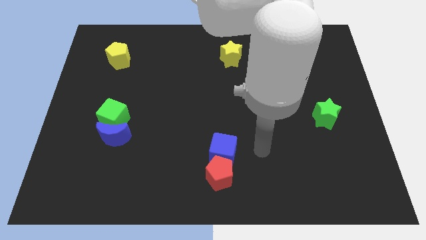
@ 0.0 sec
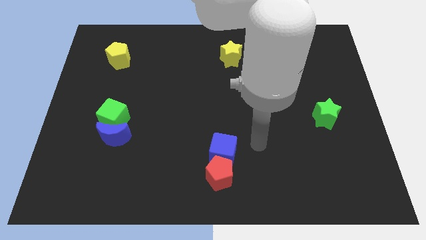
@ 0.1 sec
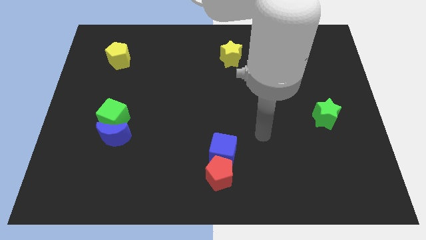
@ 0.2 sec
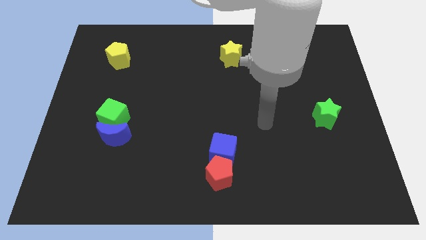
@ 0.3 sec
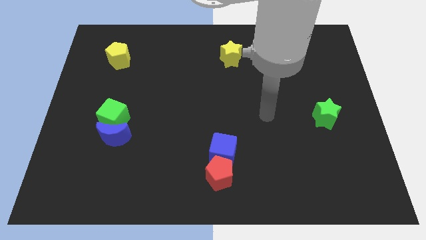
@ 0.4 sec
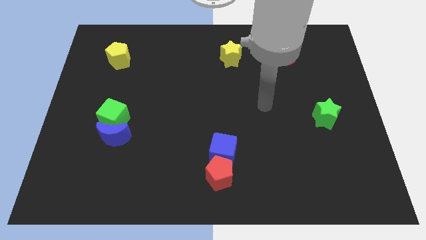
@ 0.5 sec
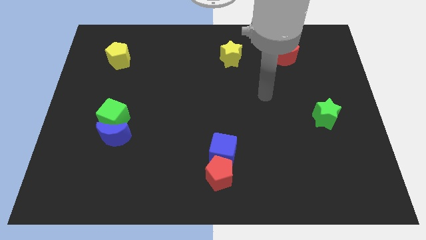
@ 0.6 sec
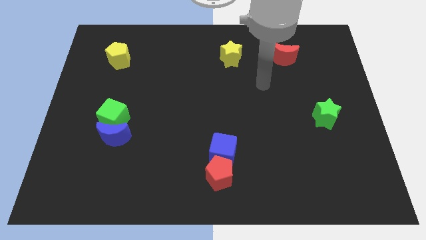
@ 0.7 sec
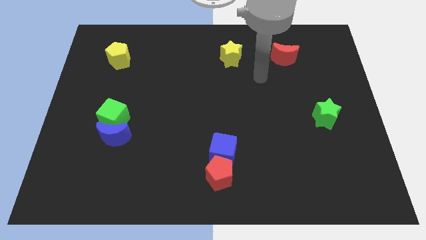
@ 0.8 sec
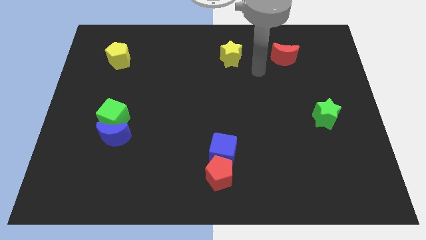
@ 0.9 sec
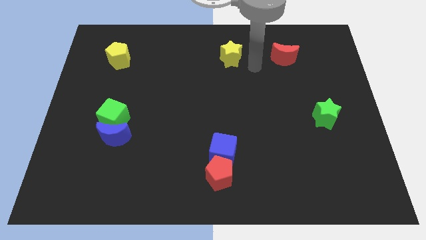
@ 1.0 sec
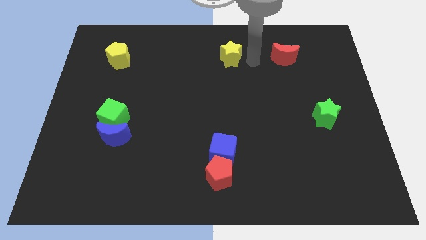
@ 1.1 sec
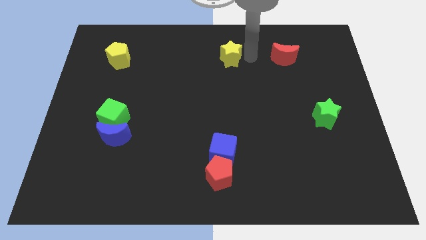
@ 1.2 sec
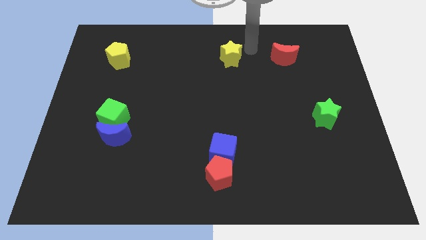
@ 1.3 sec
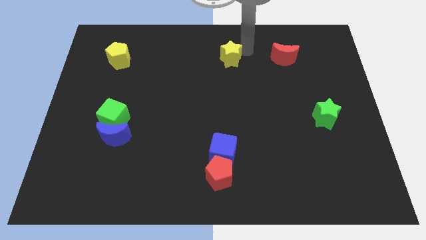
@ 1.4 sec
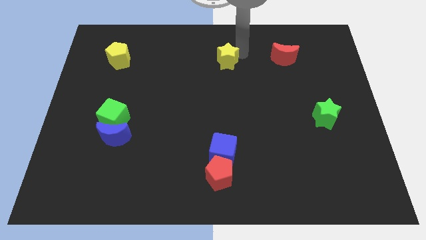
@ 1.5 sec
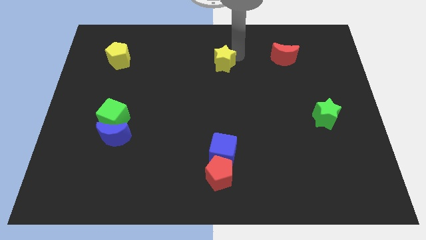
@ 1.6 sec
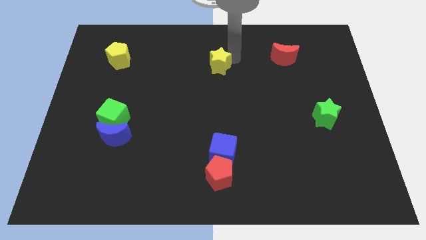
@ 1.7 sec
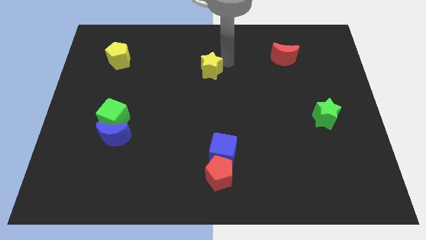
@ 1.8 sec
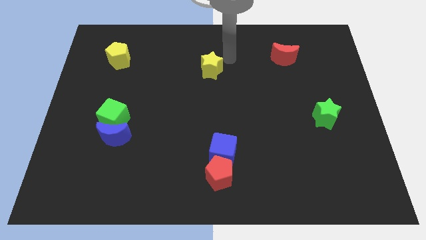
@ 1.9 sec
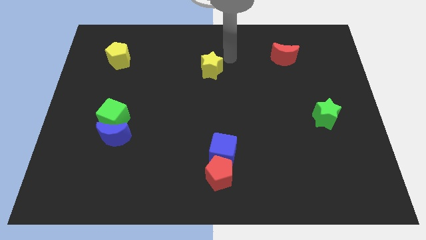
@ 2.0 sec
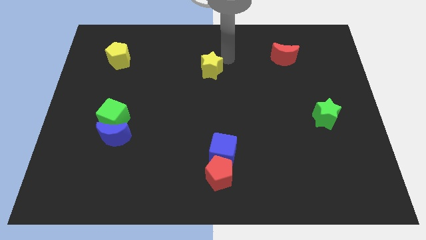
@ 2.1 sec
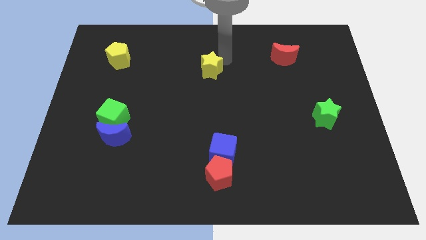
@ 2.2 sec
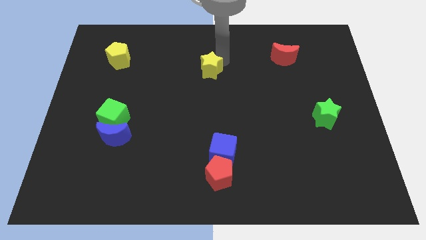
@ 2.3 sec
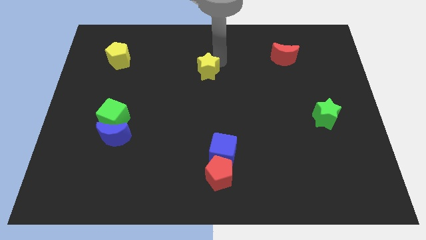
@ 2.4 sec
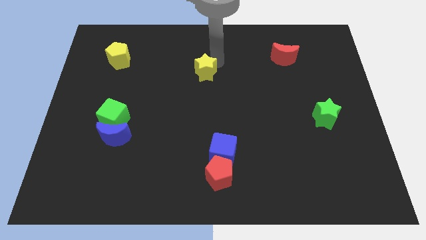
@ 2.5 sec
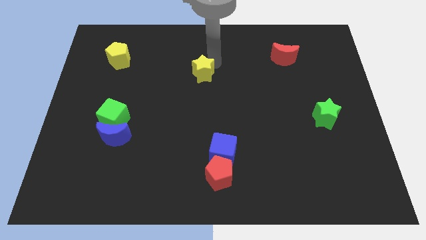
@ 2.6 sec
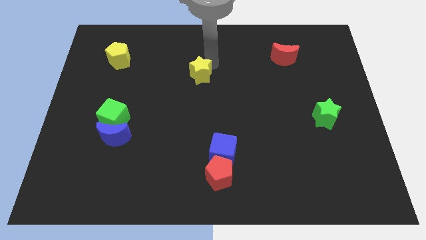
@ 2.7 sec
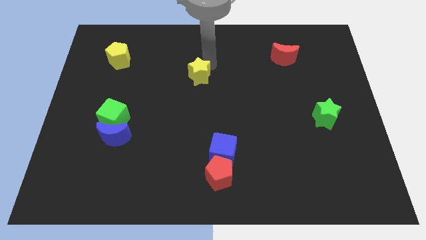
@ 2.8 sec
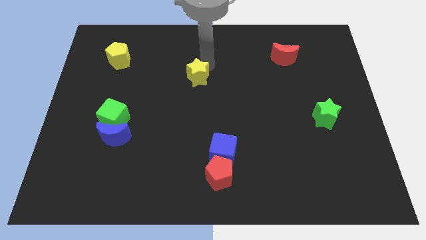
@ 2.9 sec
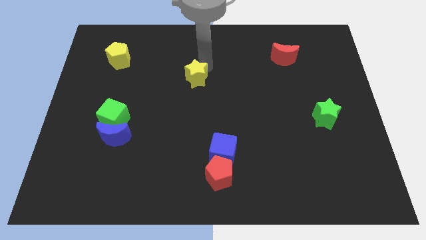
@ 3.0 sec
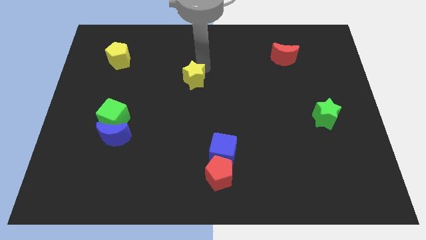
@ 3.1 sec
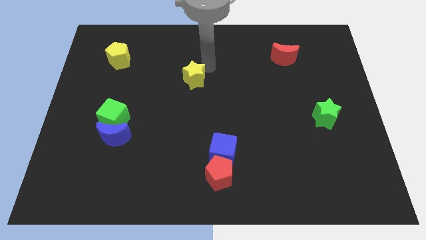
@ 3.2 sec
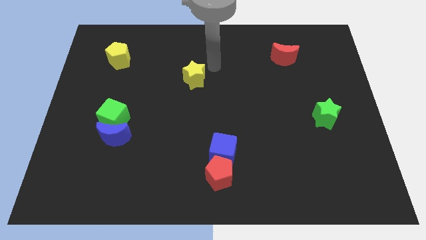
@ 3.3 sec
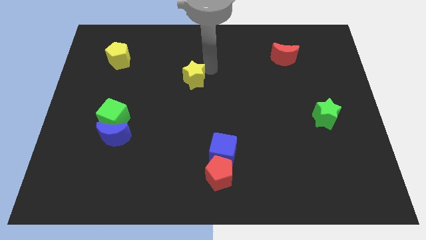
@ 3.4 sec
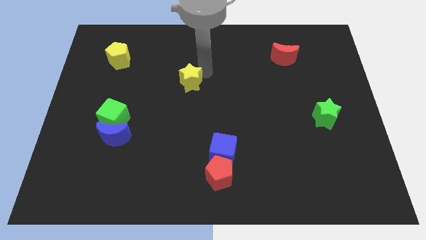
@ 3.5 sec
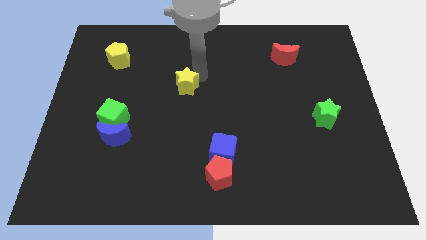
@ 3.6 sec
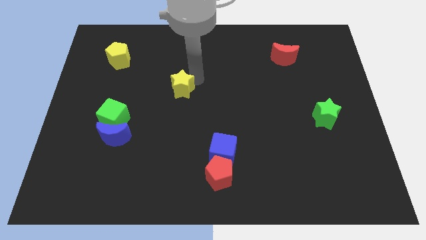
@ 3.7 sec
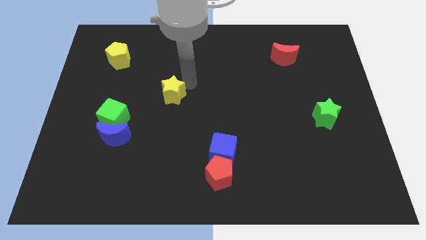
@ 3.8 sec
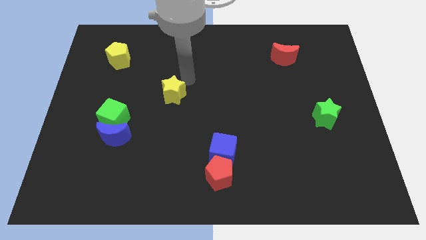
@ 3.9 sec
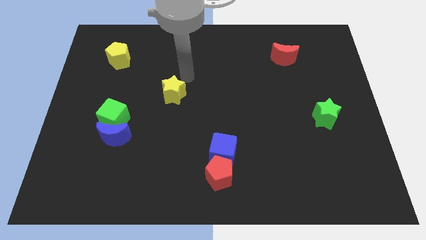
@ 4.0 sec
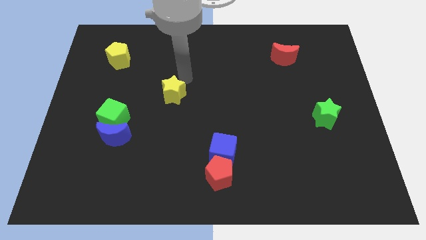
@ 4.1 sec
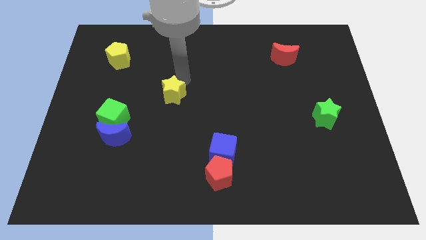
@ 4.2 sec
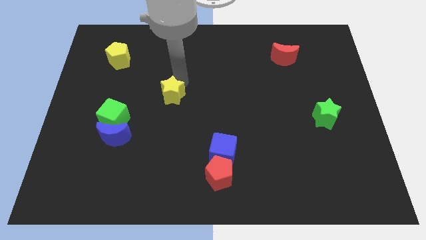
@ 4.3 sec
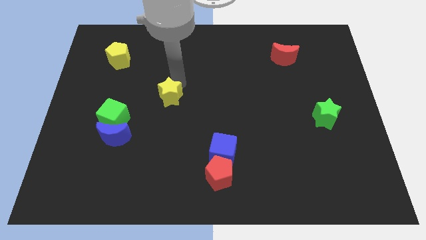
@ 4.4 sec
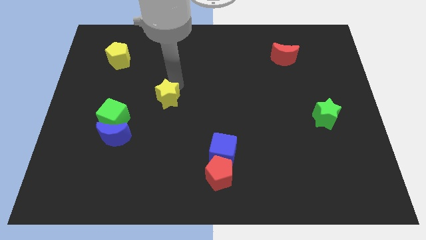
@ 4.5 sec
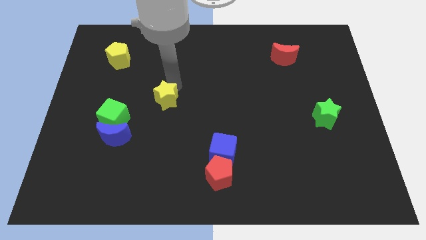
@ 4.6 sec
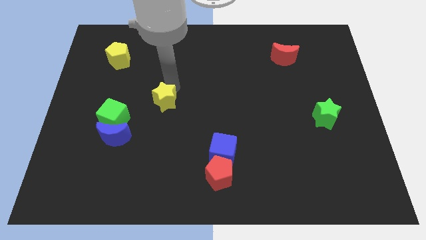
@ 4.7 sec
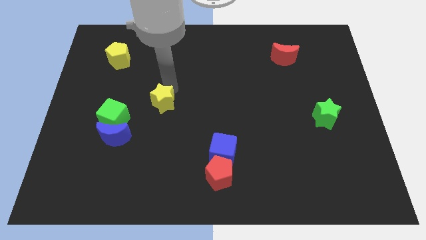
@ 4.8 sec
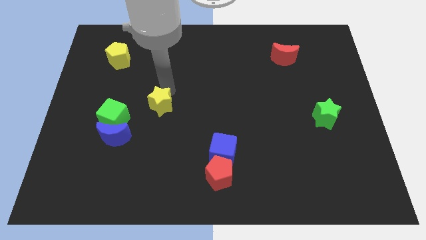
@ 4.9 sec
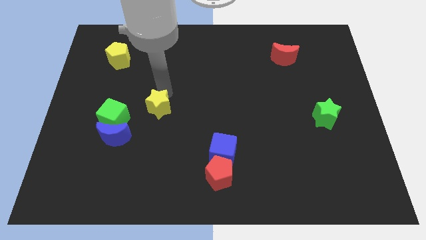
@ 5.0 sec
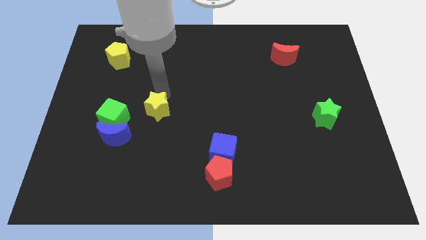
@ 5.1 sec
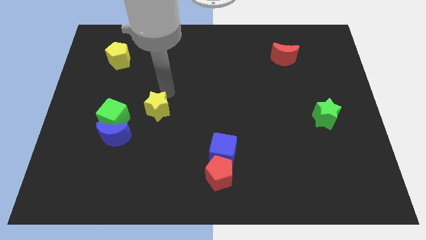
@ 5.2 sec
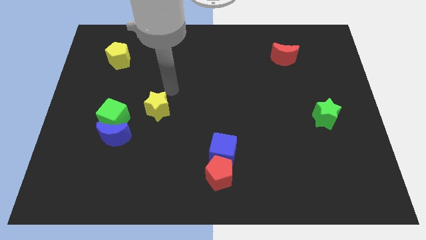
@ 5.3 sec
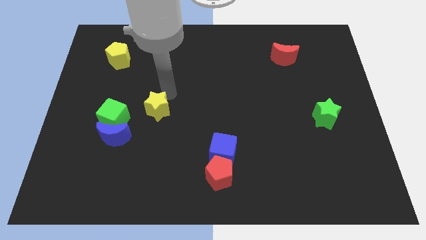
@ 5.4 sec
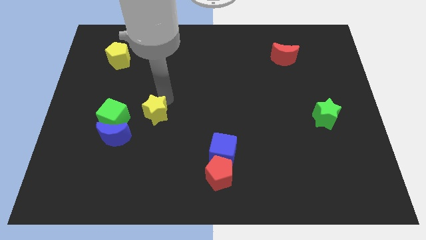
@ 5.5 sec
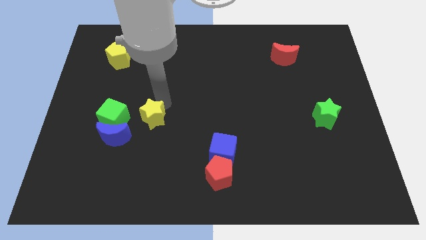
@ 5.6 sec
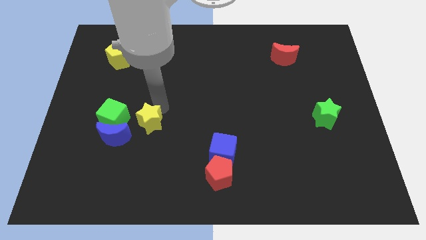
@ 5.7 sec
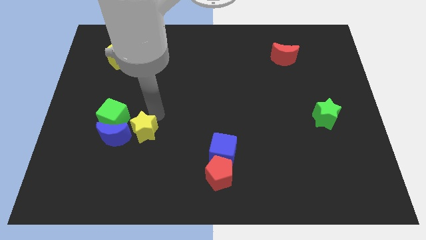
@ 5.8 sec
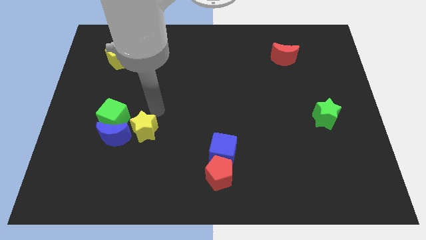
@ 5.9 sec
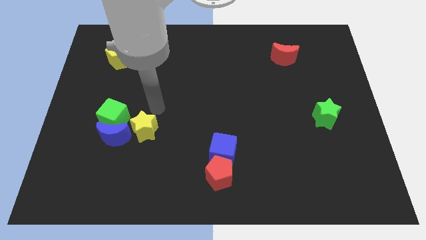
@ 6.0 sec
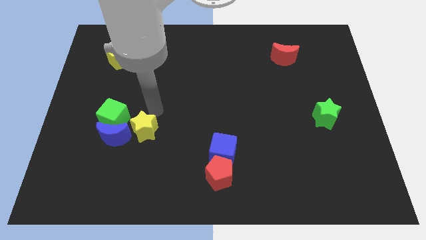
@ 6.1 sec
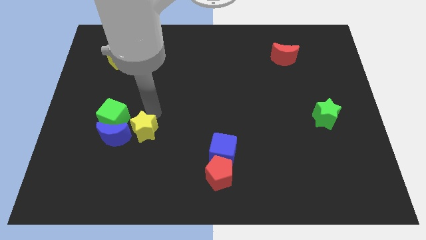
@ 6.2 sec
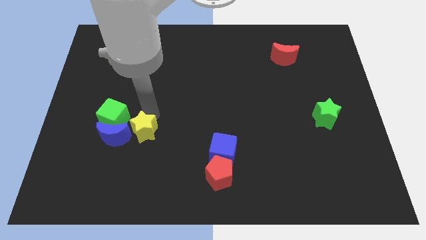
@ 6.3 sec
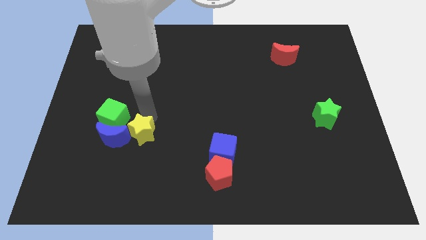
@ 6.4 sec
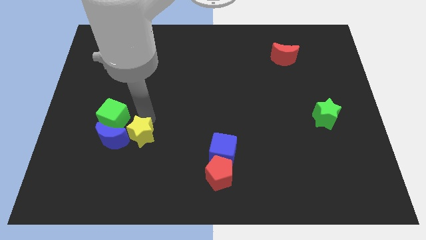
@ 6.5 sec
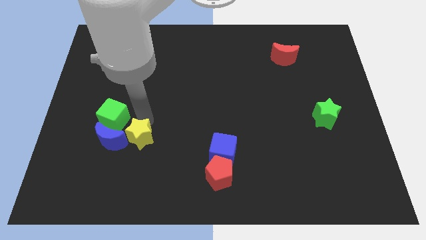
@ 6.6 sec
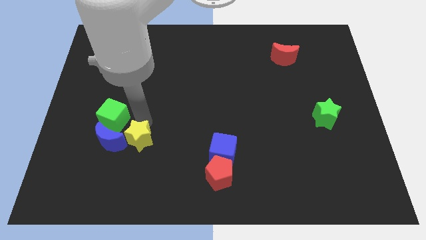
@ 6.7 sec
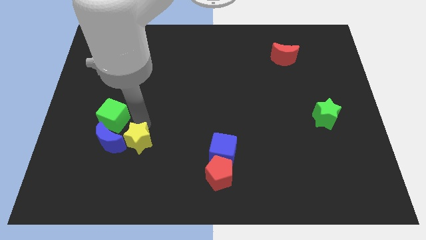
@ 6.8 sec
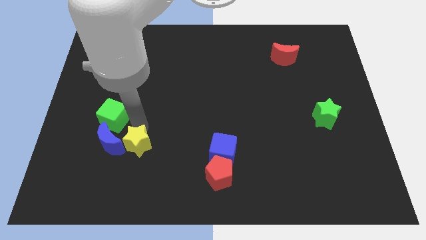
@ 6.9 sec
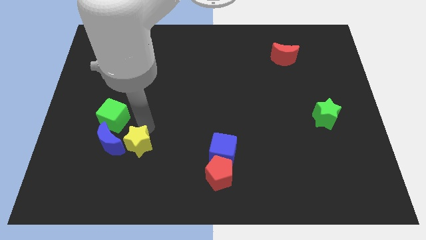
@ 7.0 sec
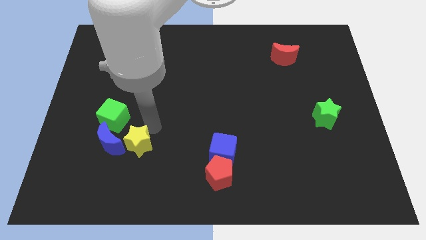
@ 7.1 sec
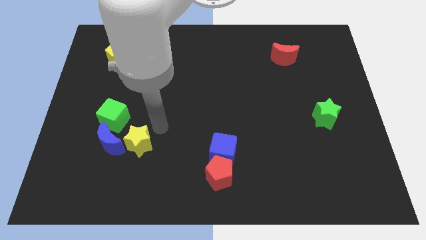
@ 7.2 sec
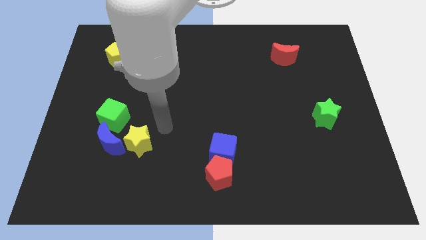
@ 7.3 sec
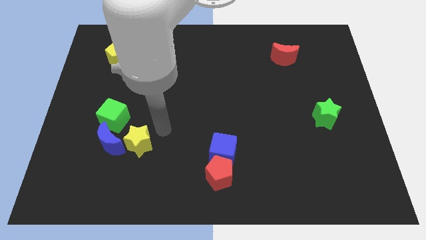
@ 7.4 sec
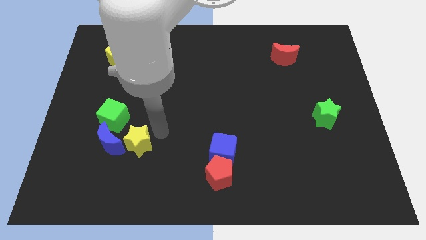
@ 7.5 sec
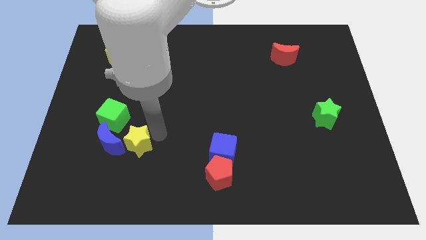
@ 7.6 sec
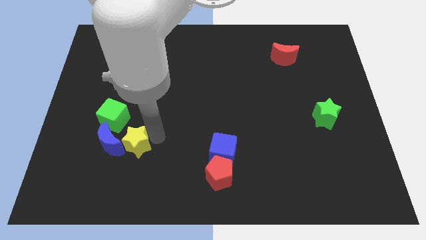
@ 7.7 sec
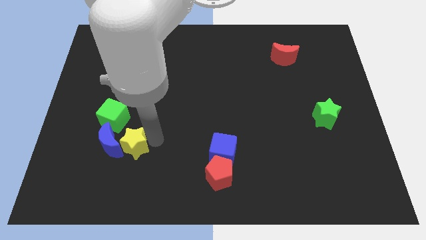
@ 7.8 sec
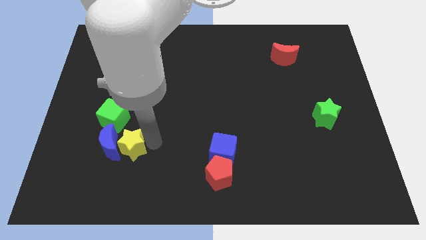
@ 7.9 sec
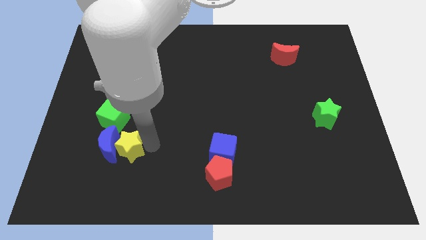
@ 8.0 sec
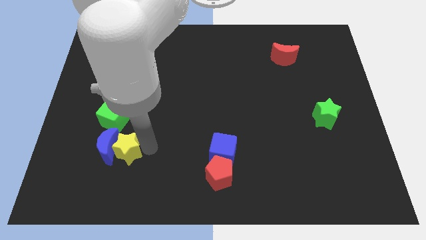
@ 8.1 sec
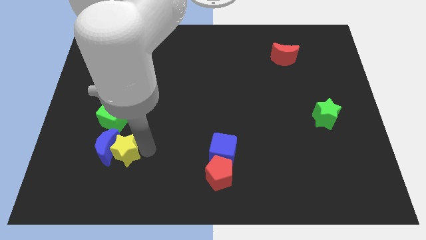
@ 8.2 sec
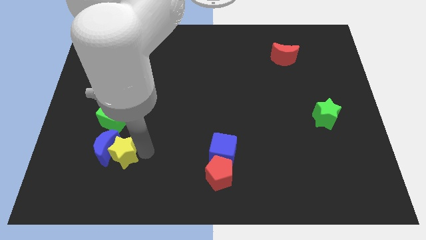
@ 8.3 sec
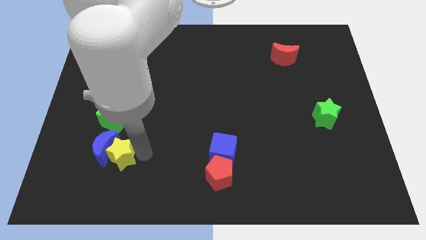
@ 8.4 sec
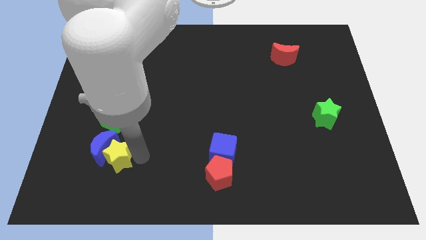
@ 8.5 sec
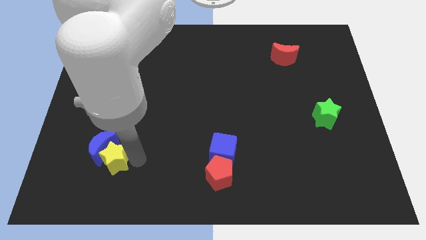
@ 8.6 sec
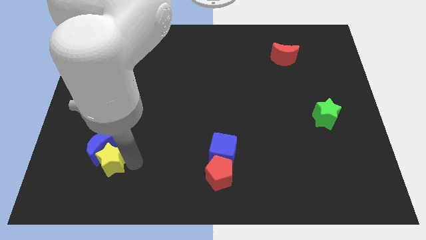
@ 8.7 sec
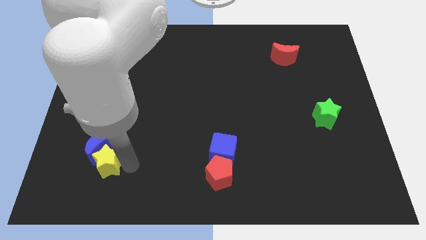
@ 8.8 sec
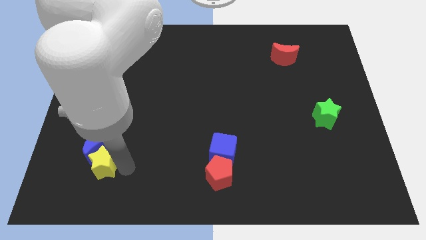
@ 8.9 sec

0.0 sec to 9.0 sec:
slide the yellow star diagonally down and to the left of the blue moon
